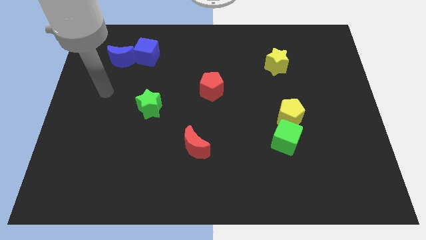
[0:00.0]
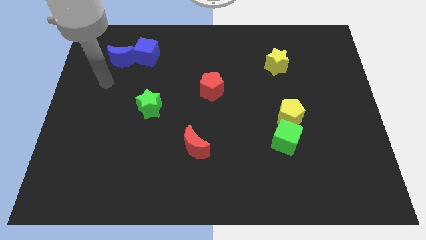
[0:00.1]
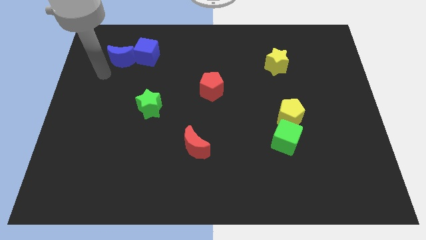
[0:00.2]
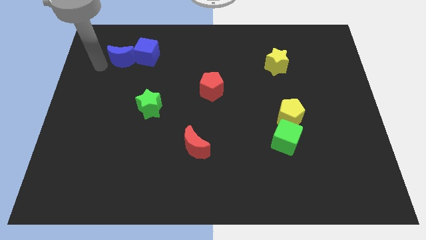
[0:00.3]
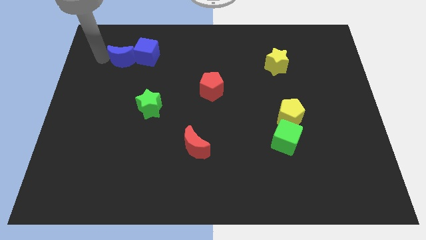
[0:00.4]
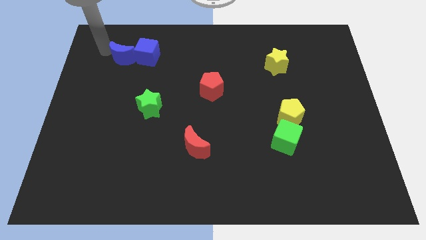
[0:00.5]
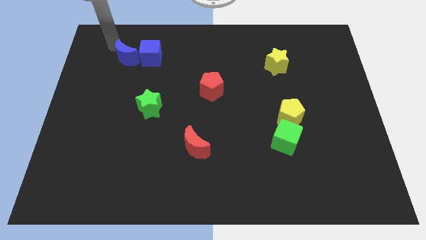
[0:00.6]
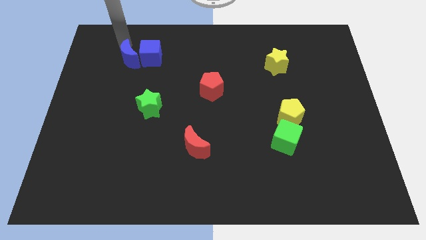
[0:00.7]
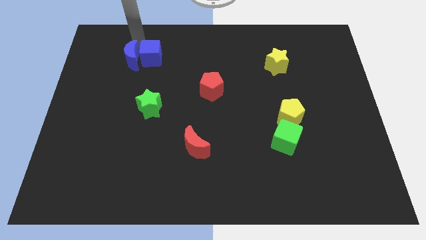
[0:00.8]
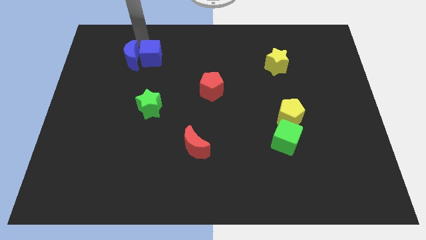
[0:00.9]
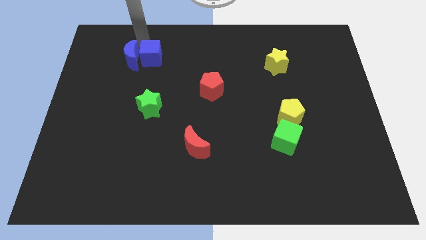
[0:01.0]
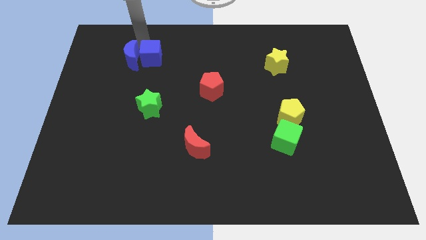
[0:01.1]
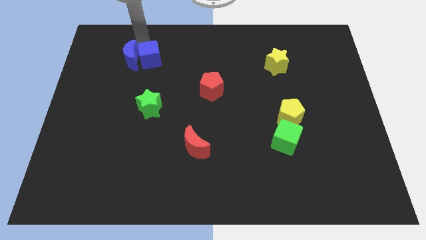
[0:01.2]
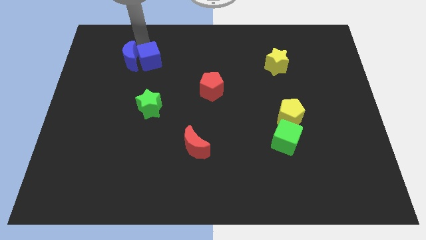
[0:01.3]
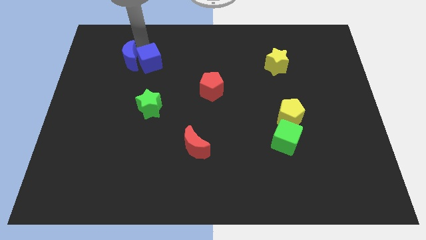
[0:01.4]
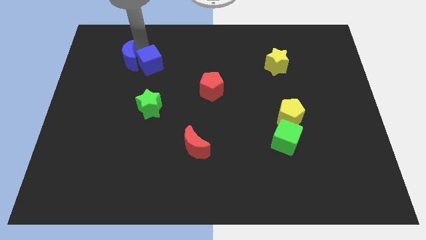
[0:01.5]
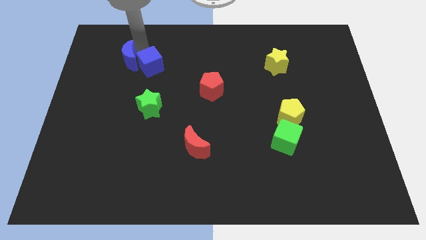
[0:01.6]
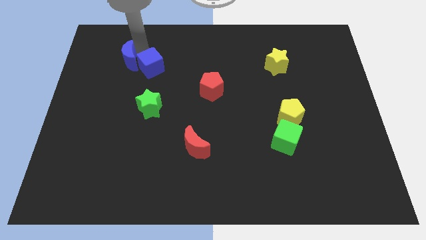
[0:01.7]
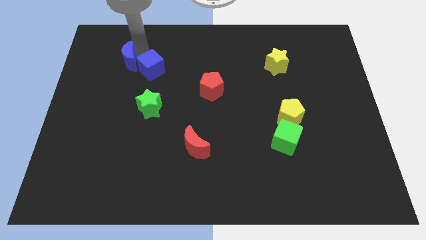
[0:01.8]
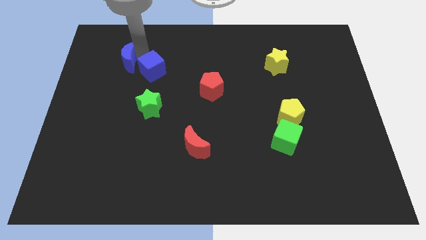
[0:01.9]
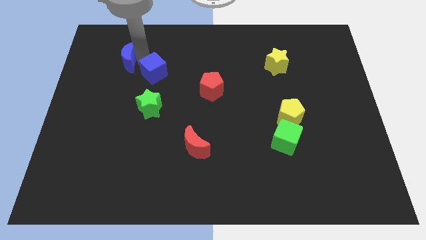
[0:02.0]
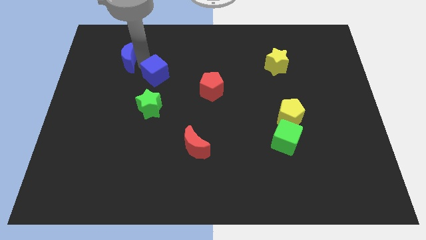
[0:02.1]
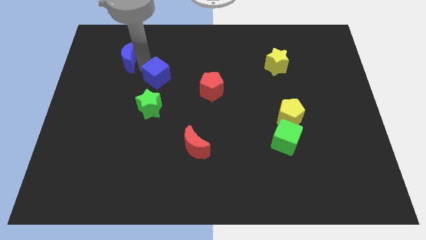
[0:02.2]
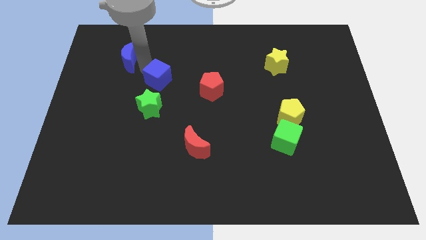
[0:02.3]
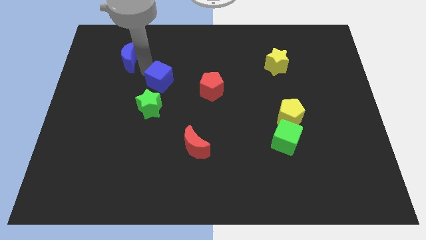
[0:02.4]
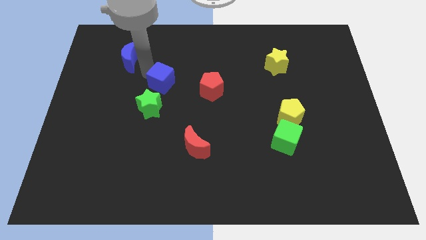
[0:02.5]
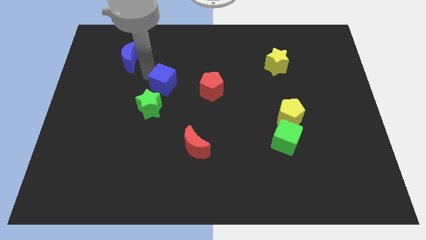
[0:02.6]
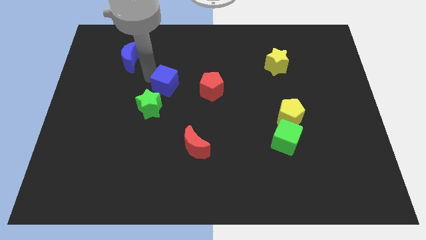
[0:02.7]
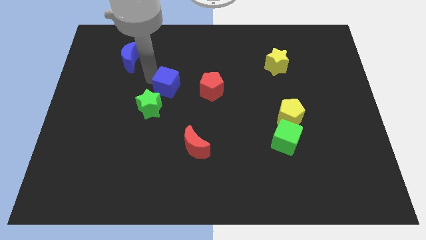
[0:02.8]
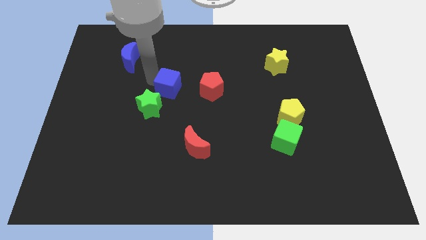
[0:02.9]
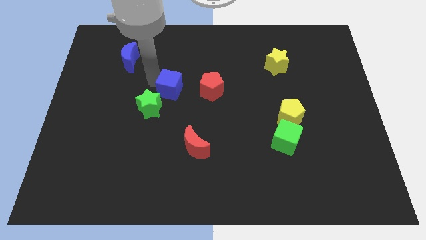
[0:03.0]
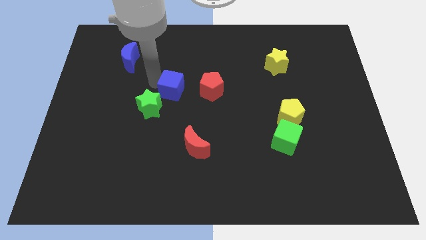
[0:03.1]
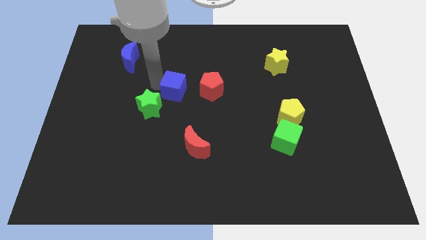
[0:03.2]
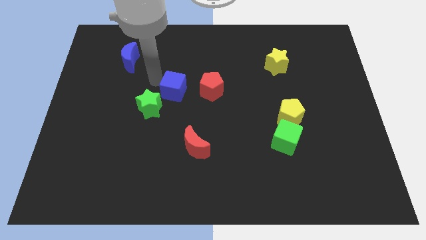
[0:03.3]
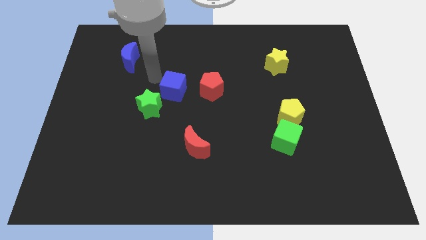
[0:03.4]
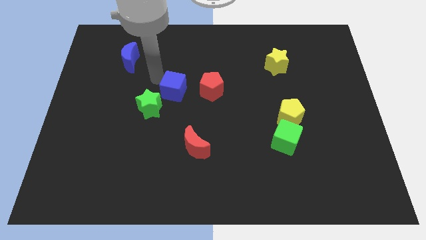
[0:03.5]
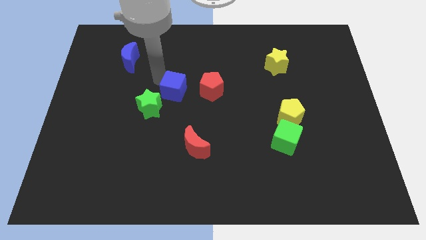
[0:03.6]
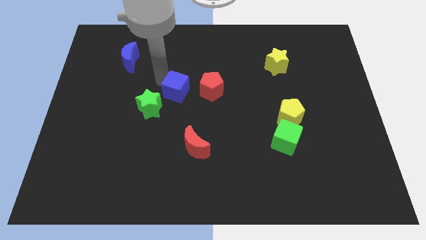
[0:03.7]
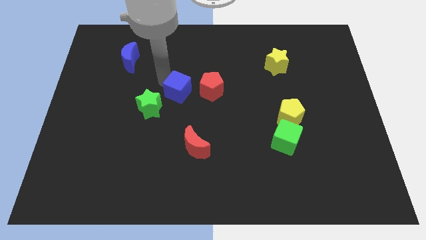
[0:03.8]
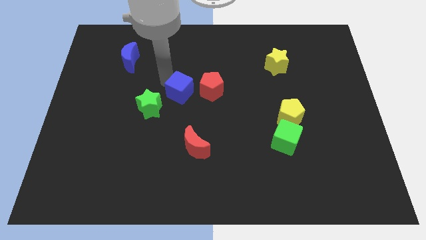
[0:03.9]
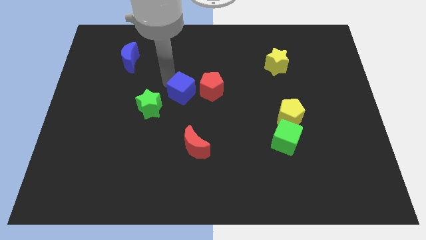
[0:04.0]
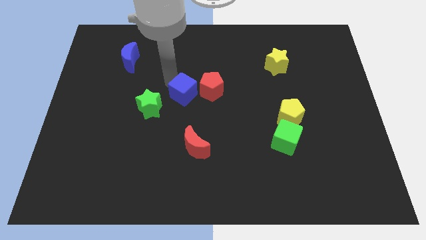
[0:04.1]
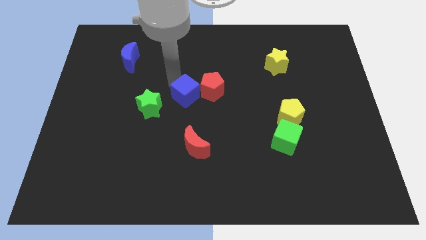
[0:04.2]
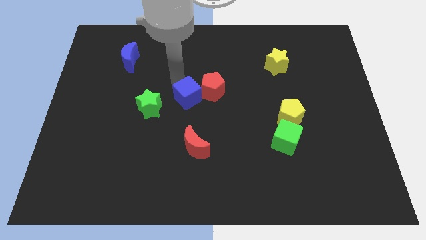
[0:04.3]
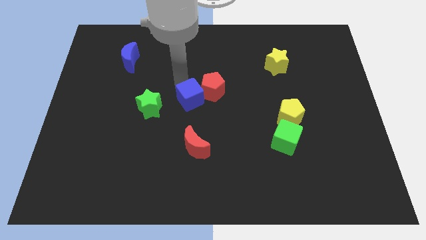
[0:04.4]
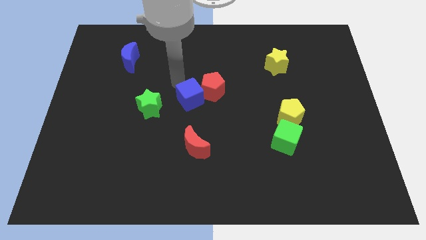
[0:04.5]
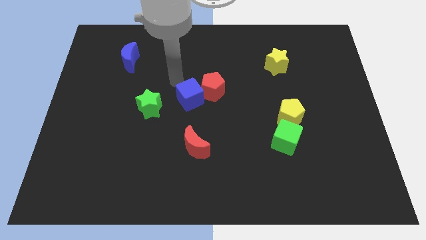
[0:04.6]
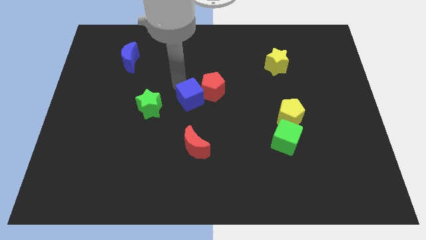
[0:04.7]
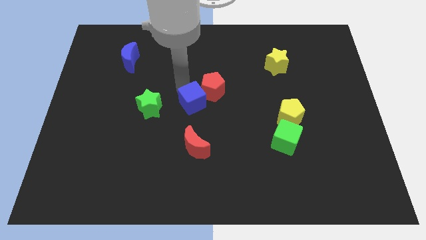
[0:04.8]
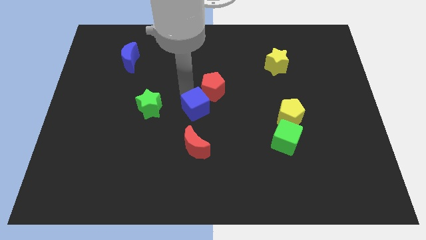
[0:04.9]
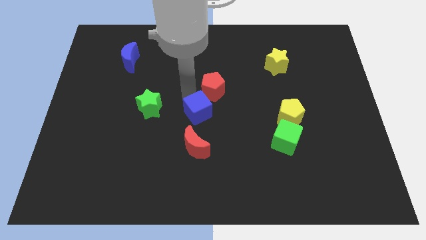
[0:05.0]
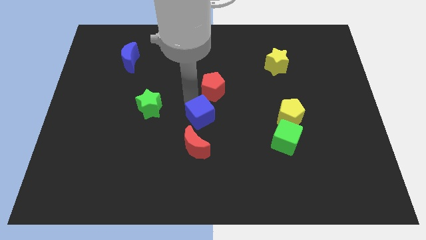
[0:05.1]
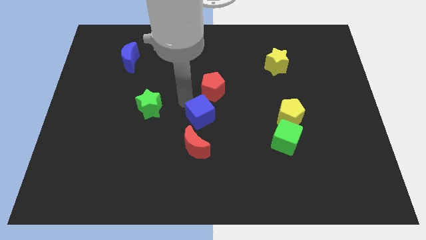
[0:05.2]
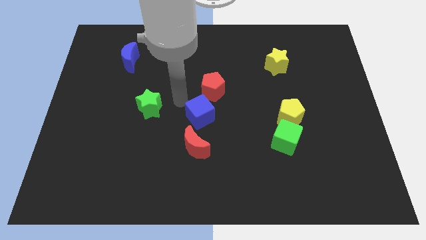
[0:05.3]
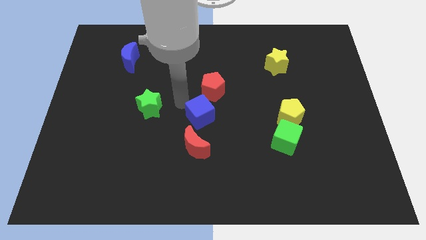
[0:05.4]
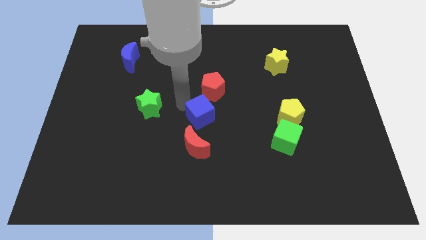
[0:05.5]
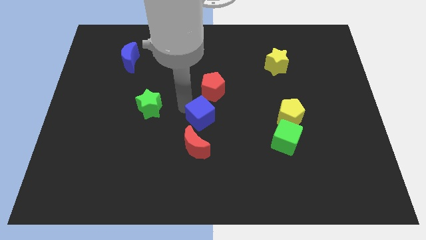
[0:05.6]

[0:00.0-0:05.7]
put the blue cube to the top right side of the red moon
